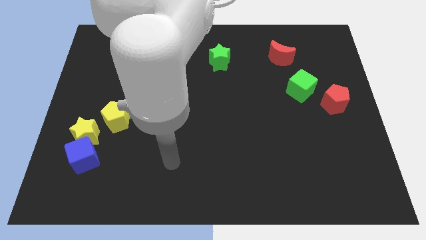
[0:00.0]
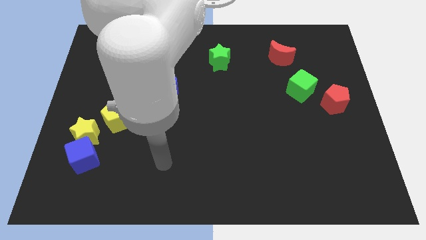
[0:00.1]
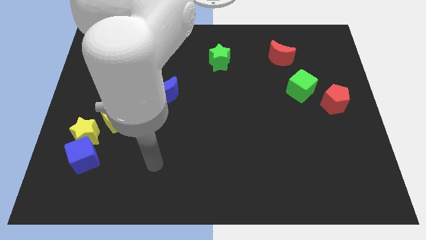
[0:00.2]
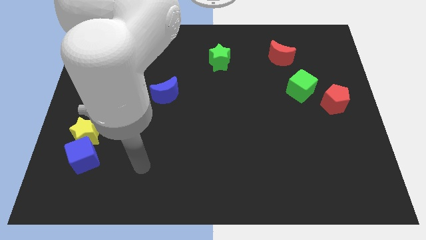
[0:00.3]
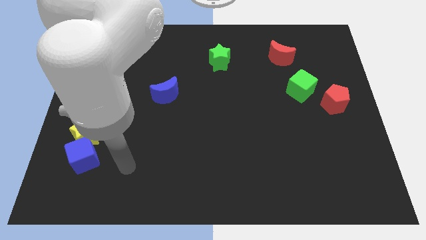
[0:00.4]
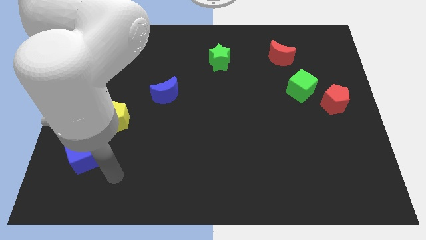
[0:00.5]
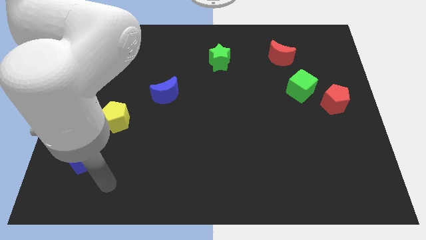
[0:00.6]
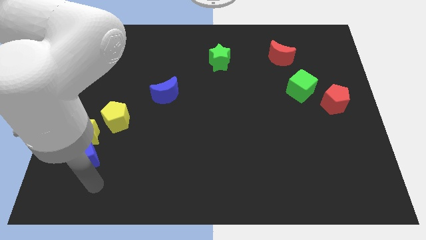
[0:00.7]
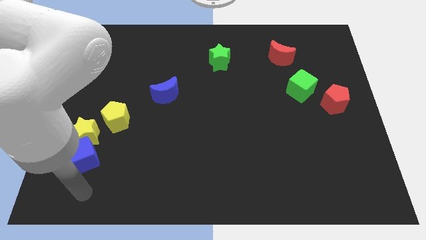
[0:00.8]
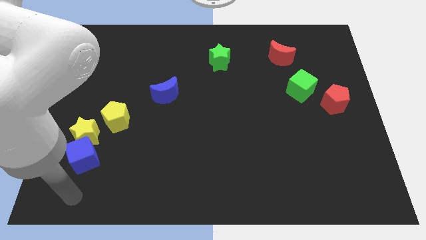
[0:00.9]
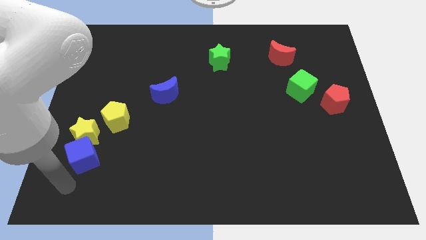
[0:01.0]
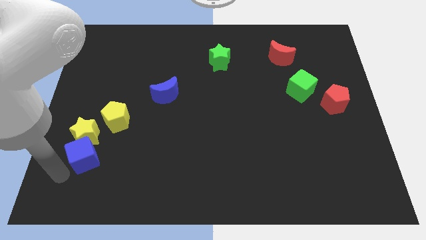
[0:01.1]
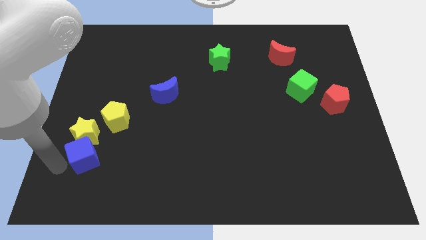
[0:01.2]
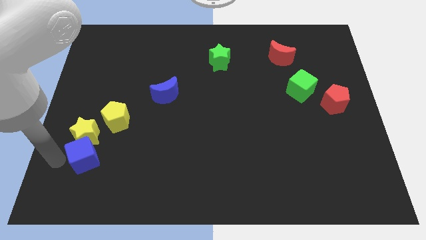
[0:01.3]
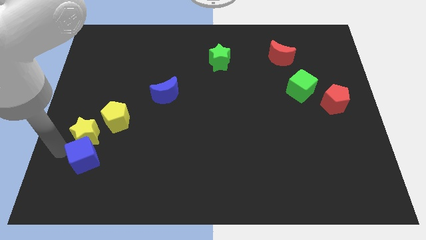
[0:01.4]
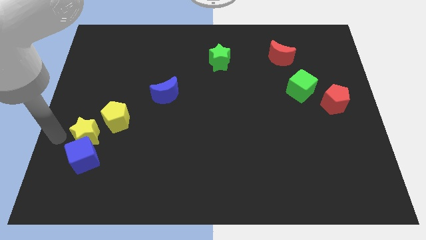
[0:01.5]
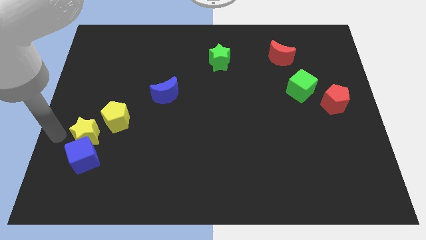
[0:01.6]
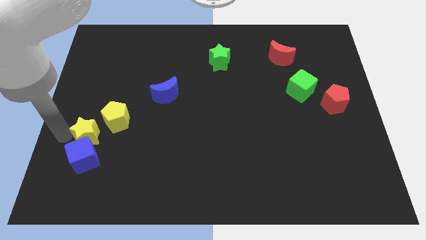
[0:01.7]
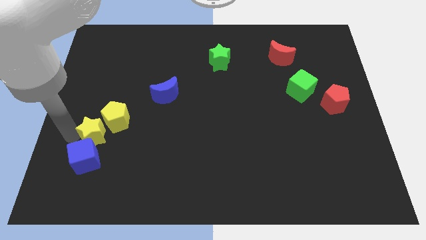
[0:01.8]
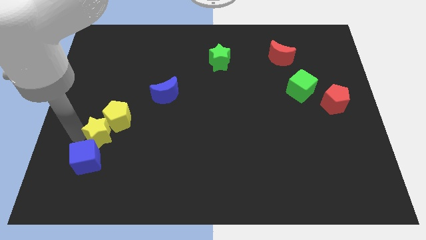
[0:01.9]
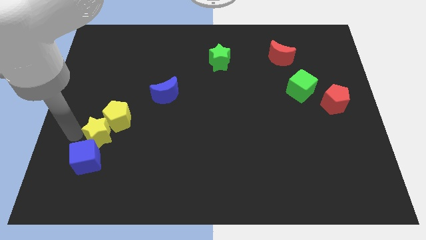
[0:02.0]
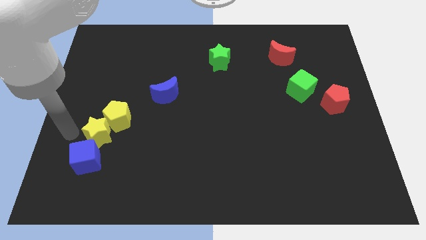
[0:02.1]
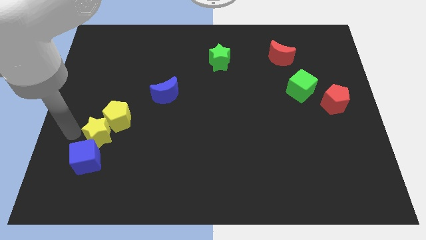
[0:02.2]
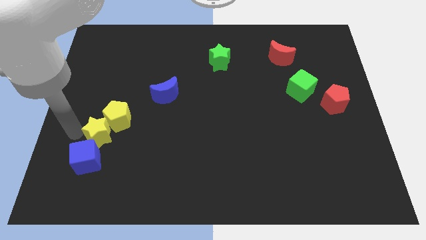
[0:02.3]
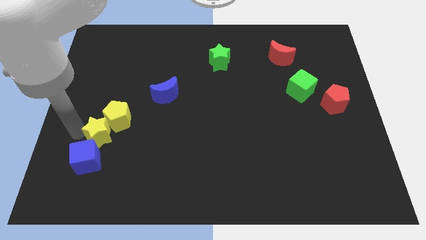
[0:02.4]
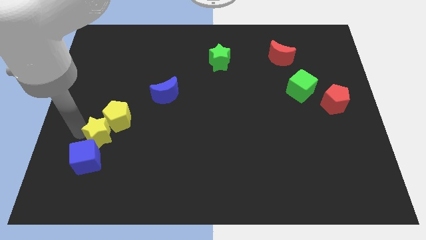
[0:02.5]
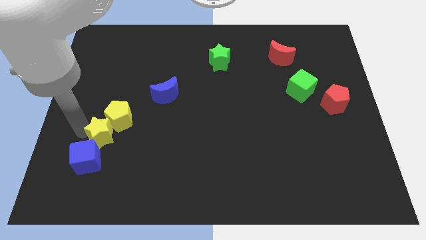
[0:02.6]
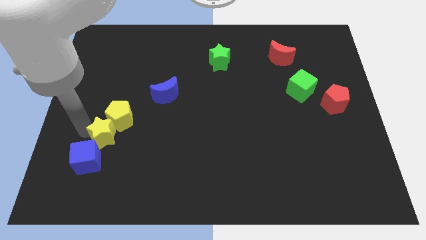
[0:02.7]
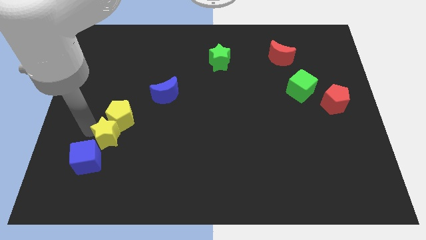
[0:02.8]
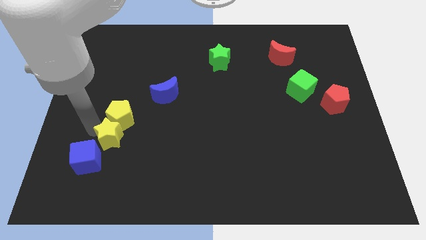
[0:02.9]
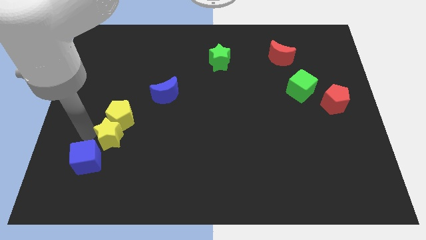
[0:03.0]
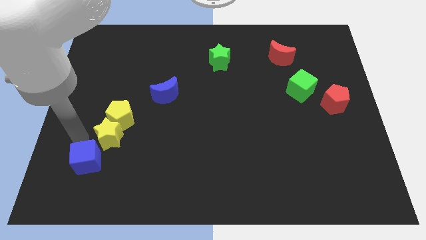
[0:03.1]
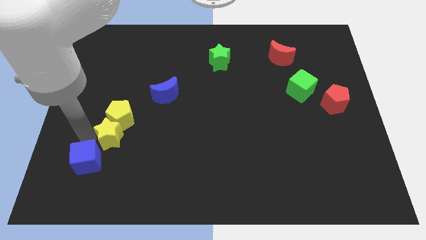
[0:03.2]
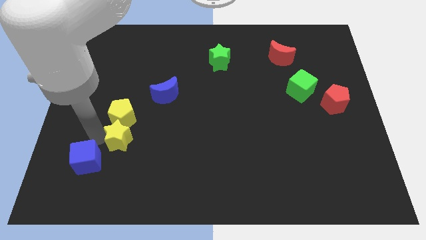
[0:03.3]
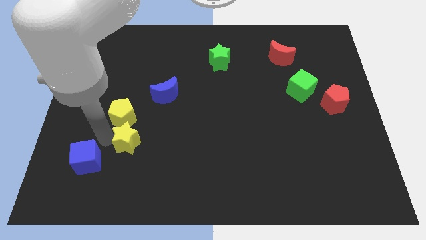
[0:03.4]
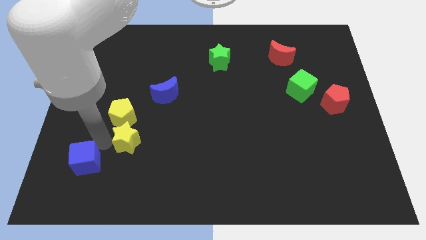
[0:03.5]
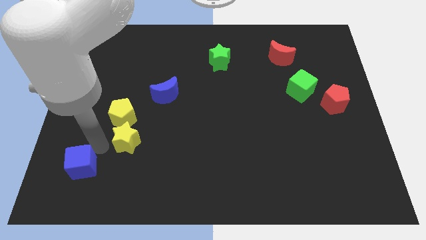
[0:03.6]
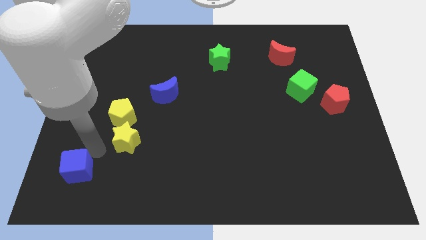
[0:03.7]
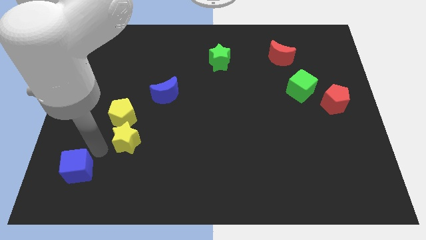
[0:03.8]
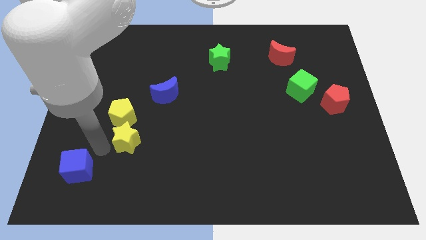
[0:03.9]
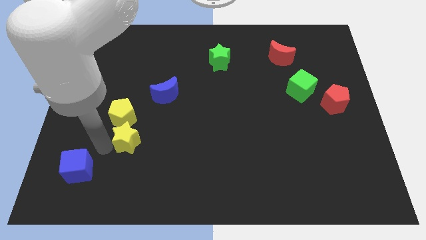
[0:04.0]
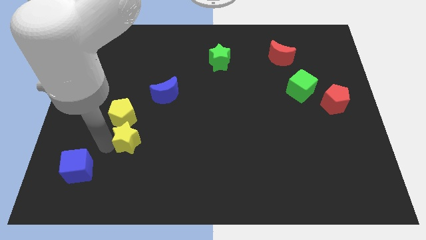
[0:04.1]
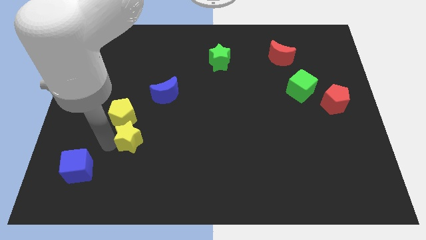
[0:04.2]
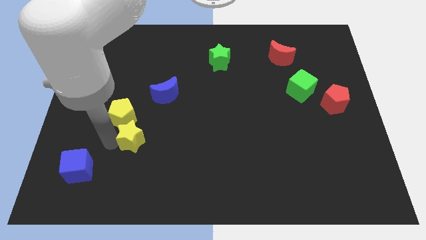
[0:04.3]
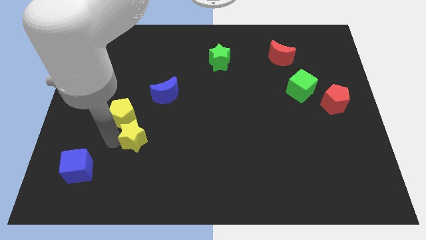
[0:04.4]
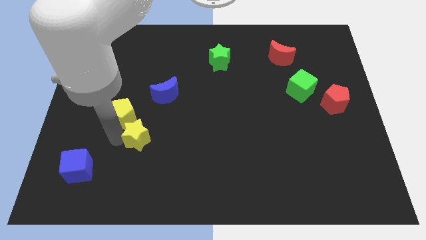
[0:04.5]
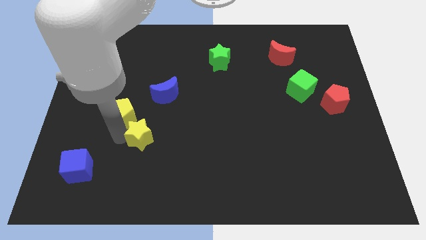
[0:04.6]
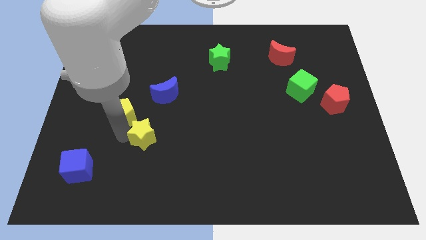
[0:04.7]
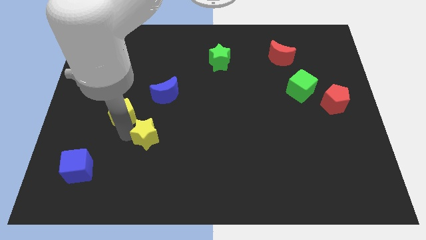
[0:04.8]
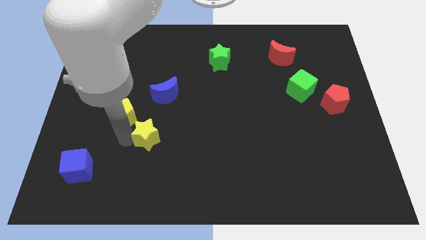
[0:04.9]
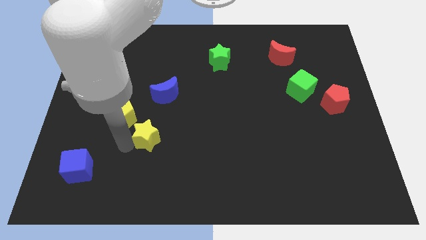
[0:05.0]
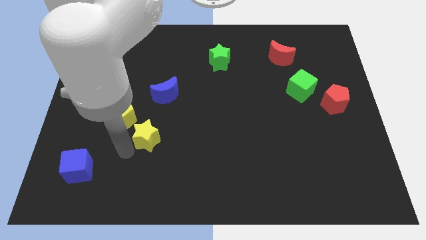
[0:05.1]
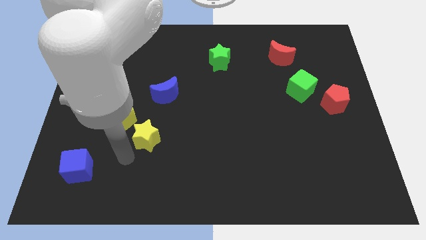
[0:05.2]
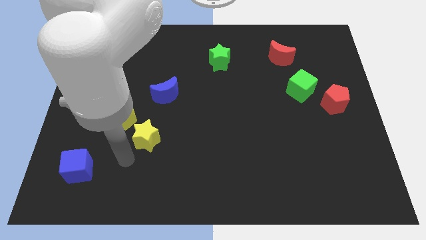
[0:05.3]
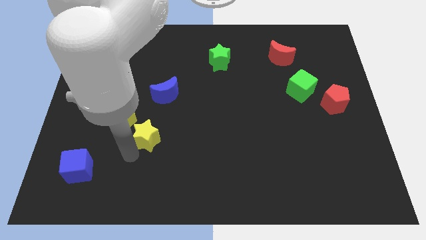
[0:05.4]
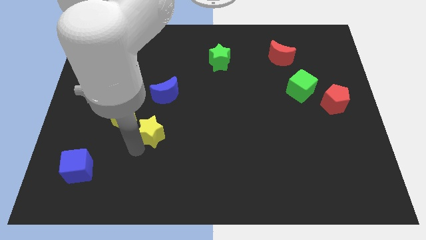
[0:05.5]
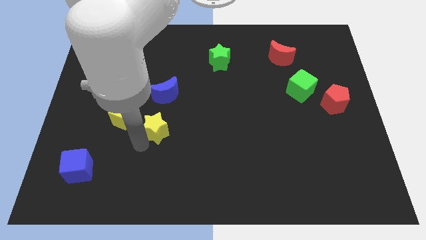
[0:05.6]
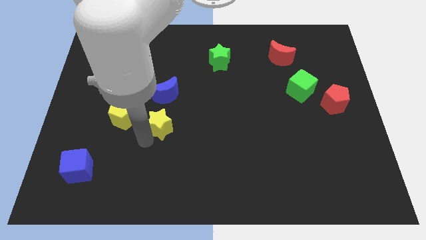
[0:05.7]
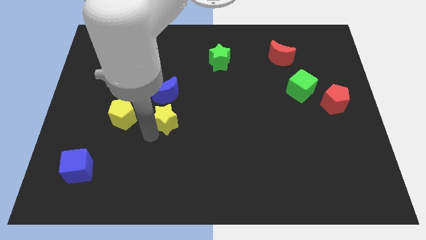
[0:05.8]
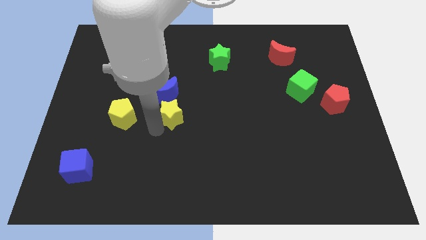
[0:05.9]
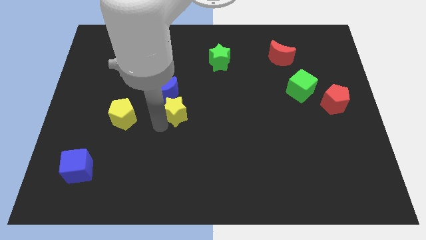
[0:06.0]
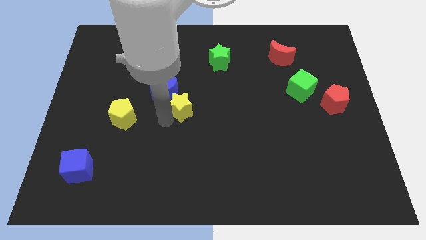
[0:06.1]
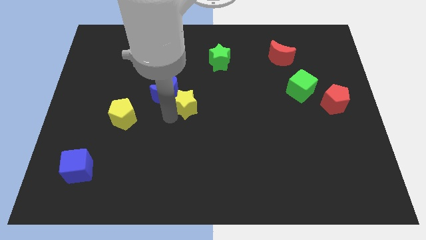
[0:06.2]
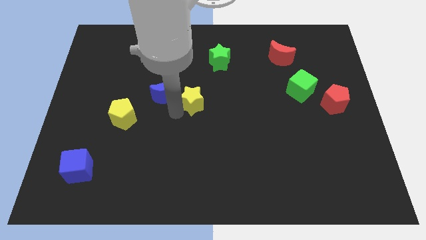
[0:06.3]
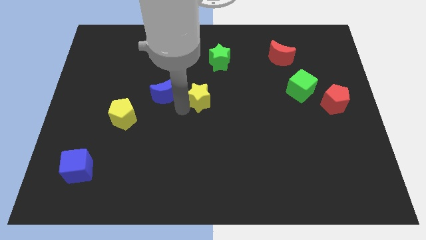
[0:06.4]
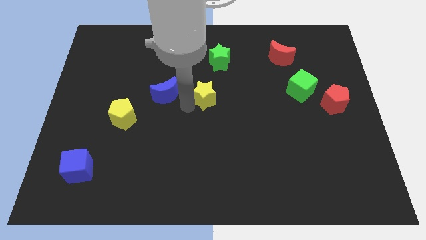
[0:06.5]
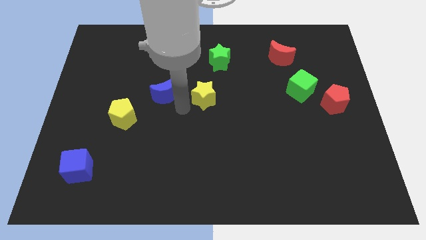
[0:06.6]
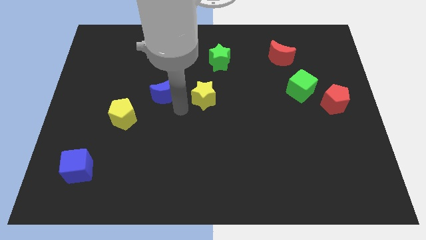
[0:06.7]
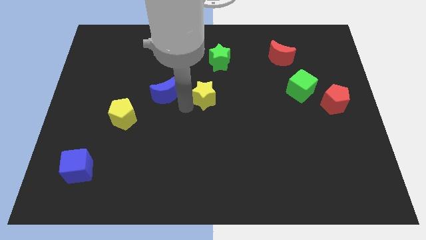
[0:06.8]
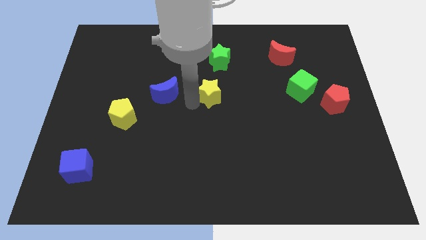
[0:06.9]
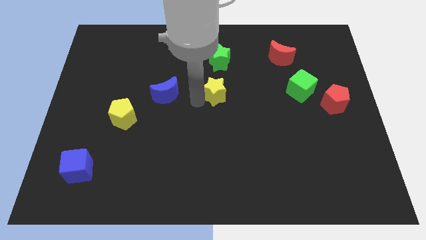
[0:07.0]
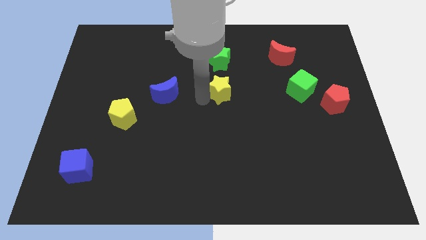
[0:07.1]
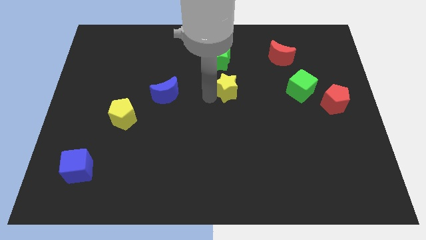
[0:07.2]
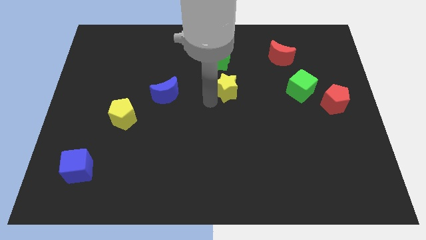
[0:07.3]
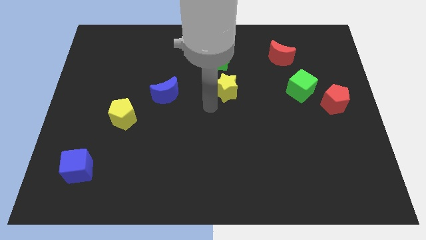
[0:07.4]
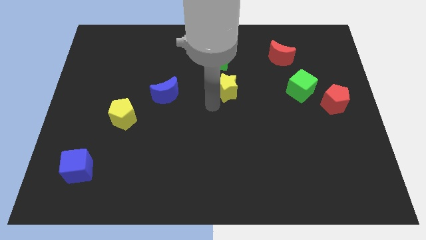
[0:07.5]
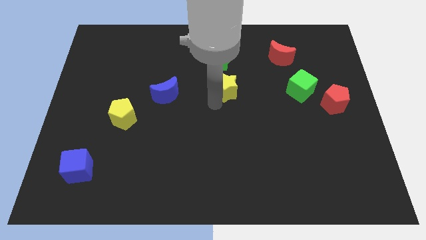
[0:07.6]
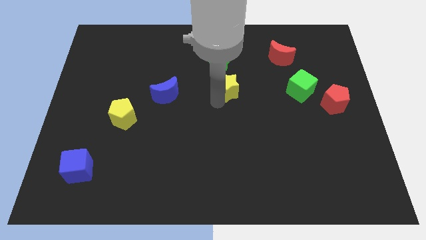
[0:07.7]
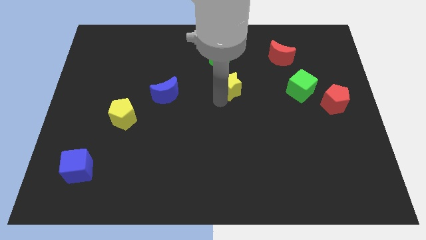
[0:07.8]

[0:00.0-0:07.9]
push the yellow star to the bottom right of the green star
